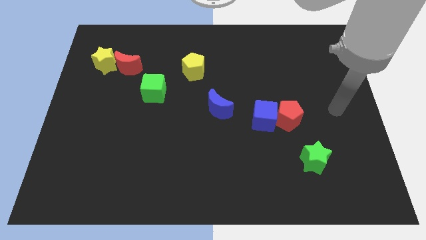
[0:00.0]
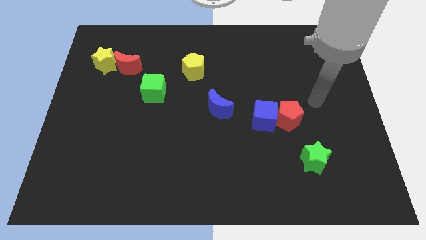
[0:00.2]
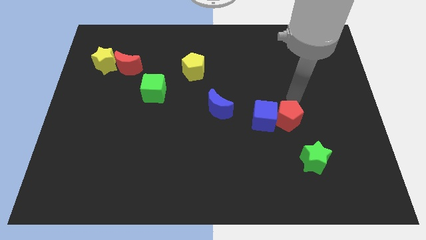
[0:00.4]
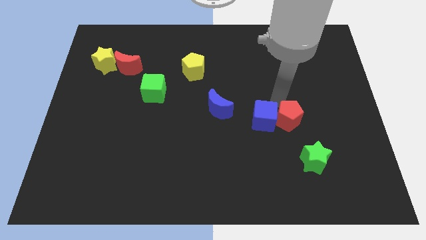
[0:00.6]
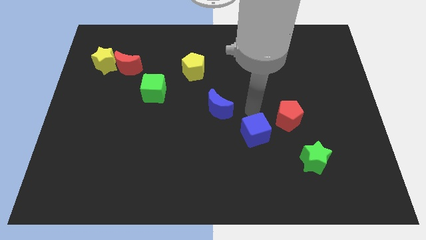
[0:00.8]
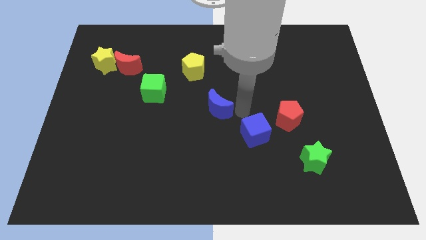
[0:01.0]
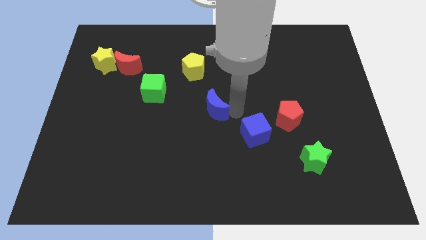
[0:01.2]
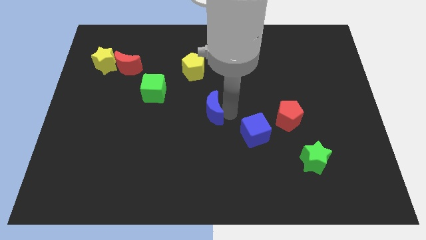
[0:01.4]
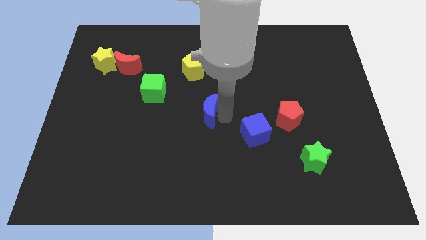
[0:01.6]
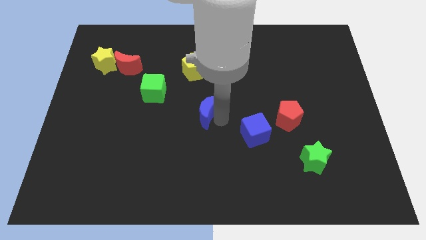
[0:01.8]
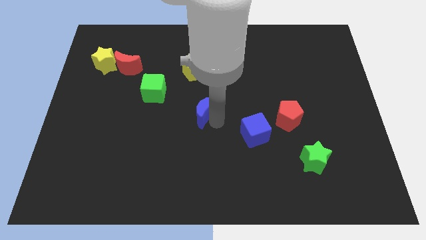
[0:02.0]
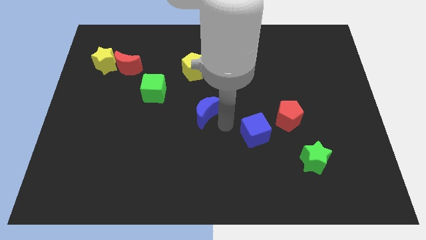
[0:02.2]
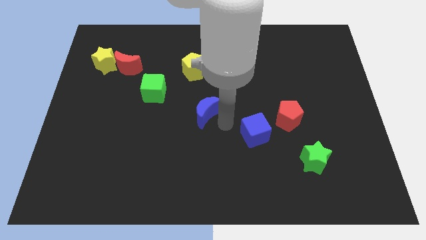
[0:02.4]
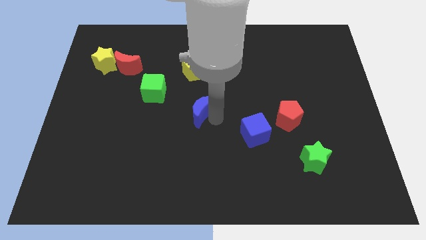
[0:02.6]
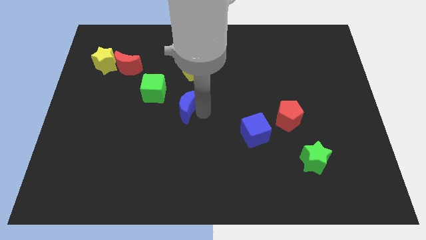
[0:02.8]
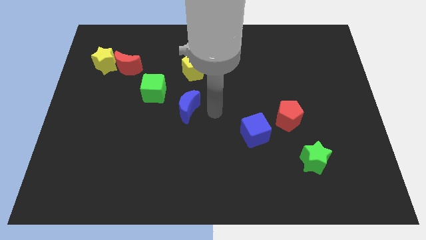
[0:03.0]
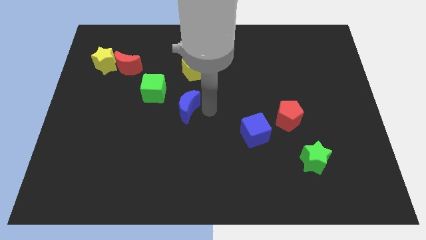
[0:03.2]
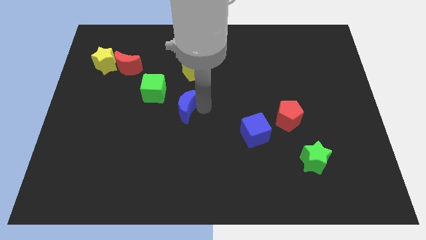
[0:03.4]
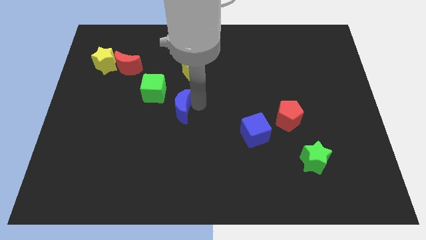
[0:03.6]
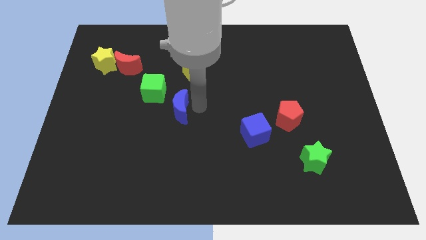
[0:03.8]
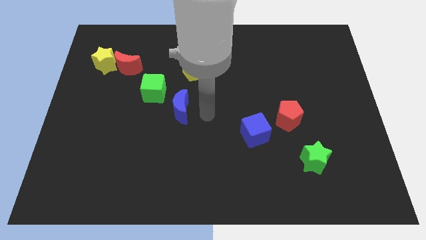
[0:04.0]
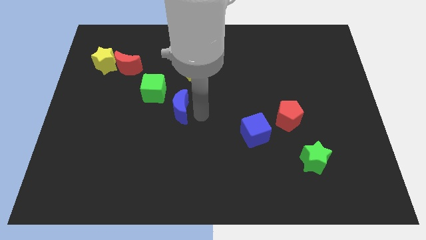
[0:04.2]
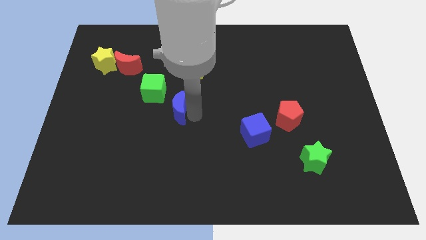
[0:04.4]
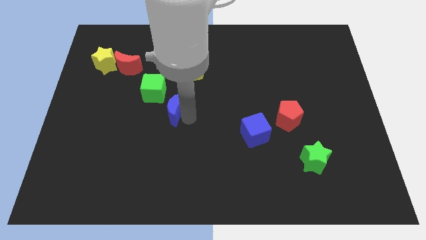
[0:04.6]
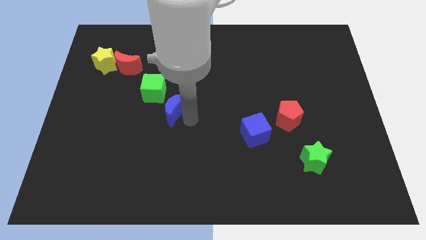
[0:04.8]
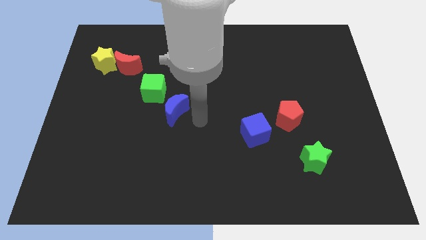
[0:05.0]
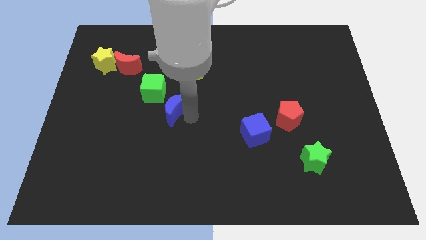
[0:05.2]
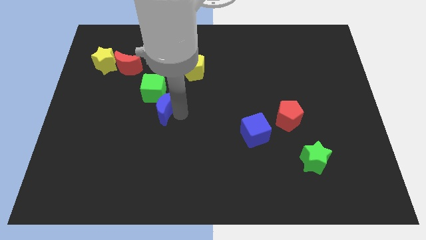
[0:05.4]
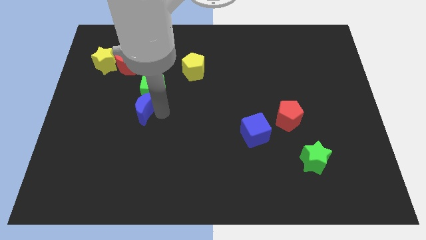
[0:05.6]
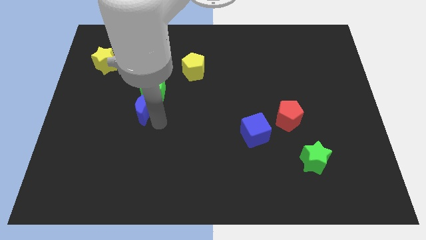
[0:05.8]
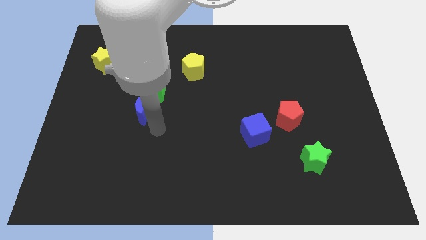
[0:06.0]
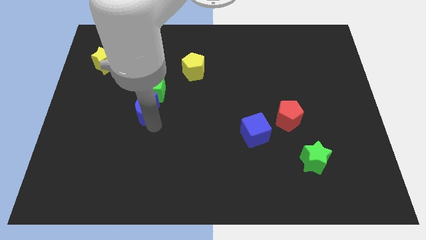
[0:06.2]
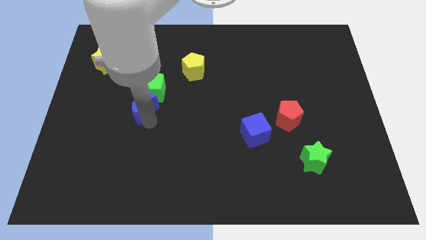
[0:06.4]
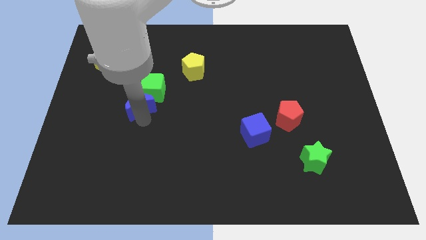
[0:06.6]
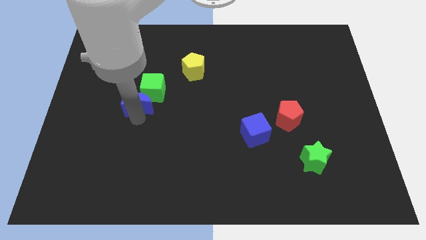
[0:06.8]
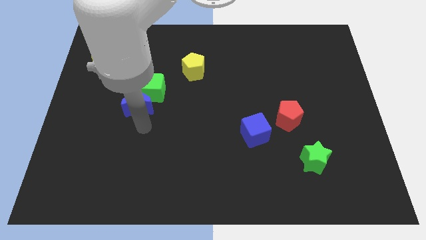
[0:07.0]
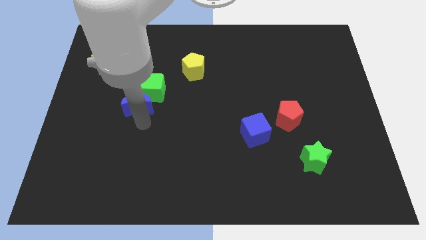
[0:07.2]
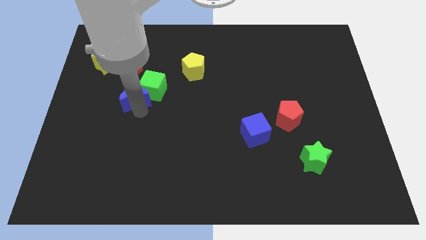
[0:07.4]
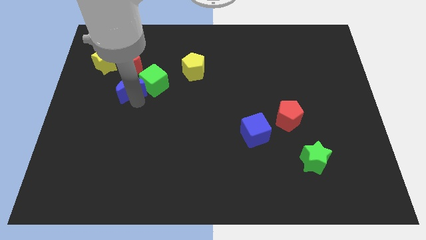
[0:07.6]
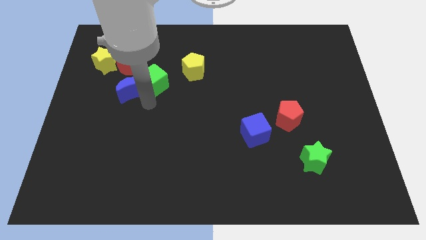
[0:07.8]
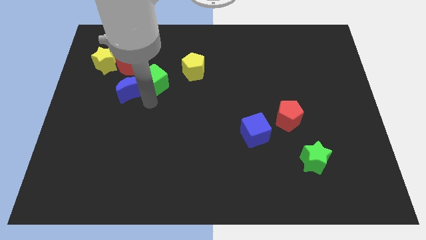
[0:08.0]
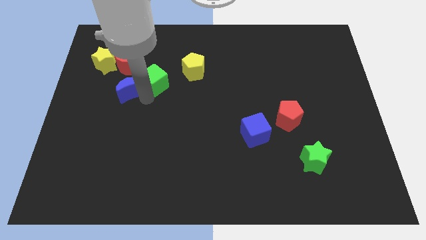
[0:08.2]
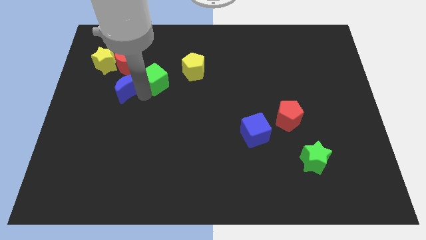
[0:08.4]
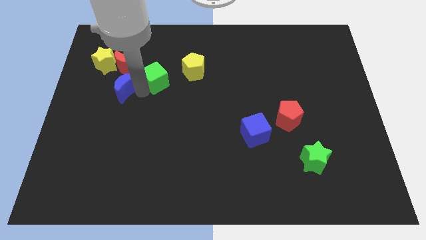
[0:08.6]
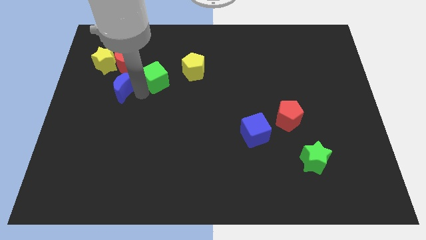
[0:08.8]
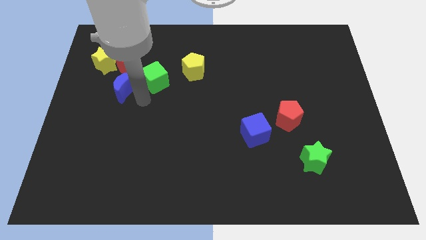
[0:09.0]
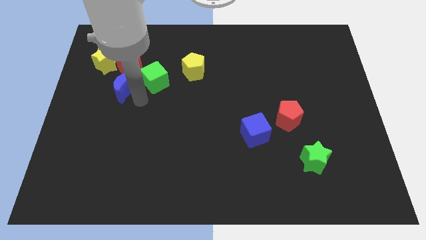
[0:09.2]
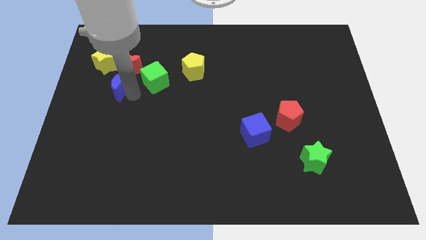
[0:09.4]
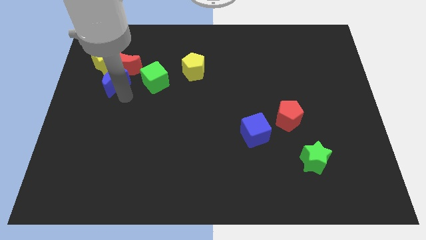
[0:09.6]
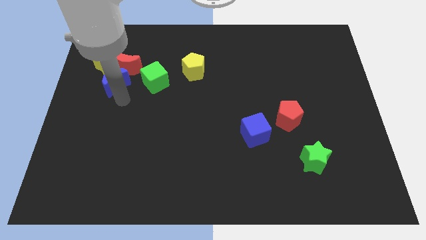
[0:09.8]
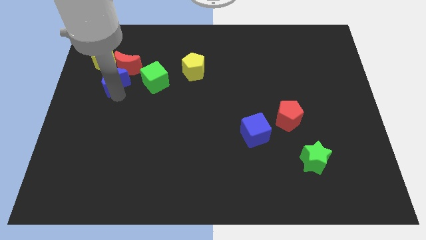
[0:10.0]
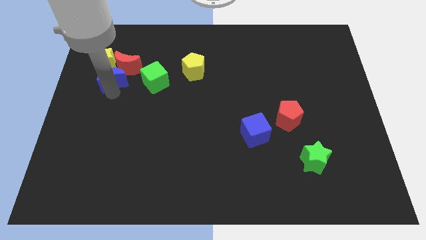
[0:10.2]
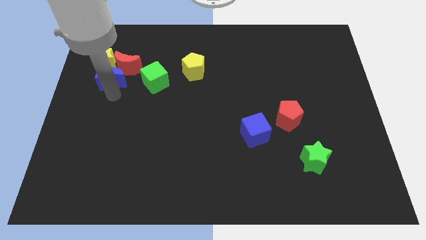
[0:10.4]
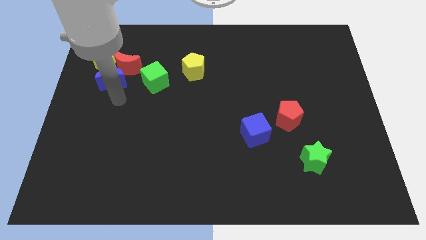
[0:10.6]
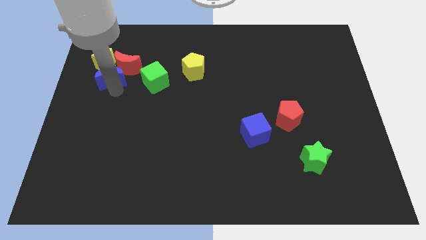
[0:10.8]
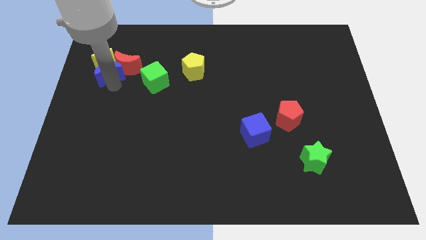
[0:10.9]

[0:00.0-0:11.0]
push the blue moon next to the yellow star

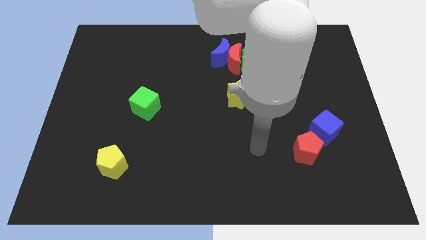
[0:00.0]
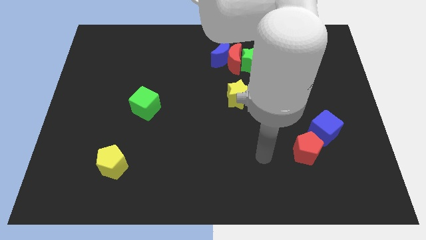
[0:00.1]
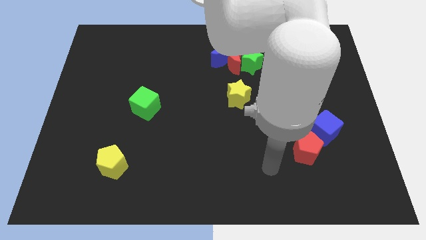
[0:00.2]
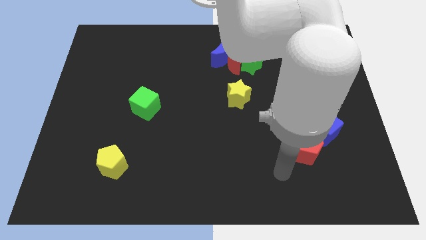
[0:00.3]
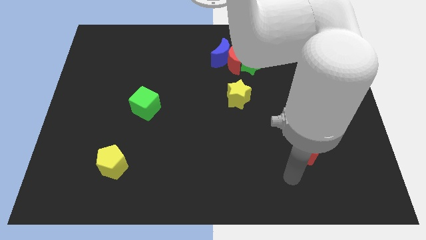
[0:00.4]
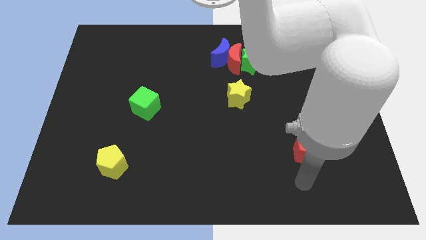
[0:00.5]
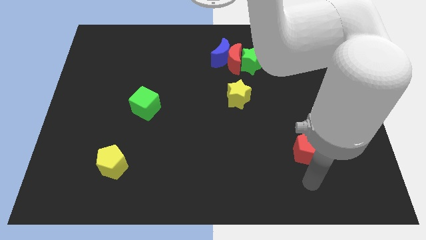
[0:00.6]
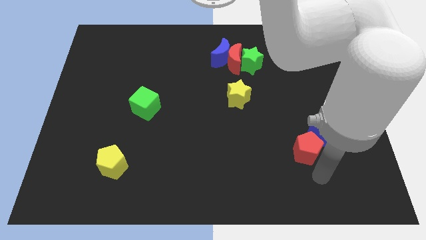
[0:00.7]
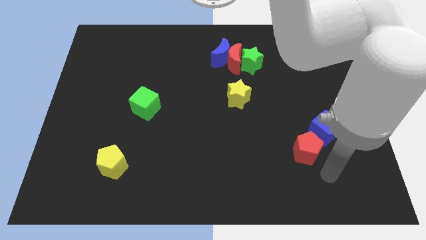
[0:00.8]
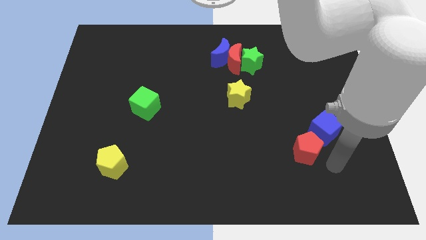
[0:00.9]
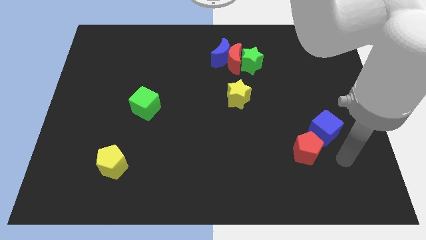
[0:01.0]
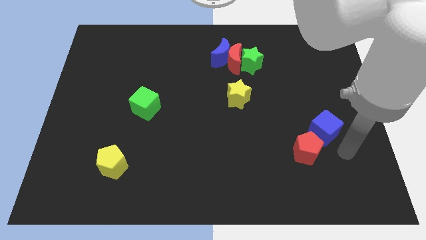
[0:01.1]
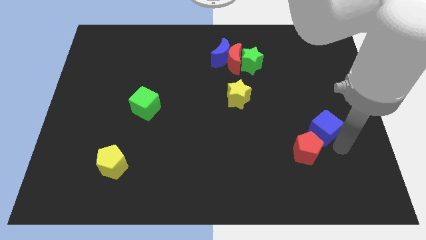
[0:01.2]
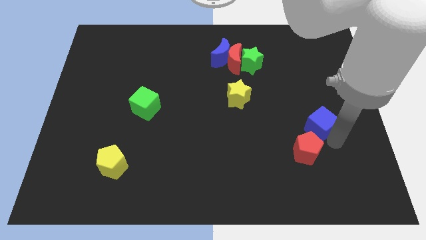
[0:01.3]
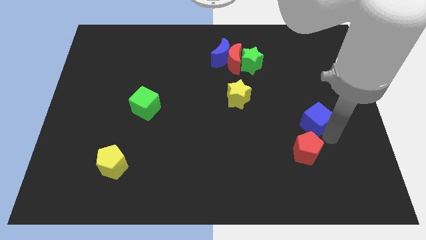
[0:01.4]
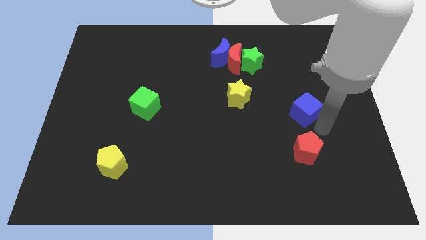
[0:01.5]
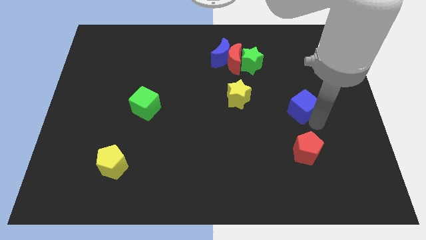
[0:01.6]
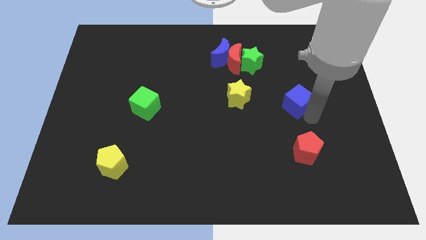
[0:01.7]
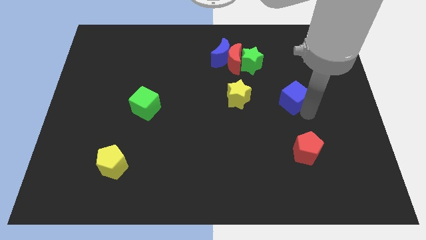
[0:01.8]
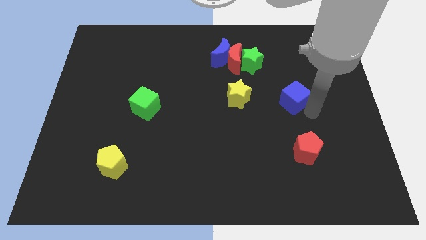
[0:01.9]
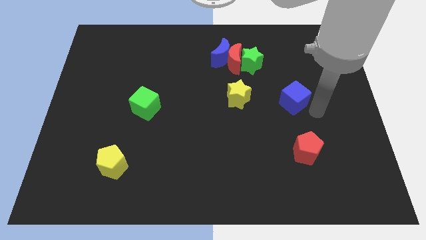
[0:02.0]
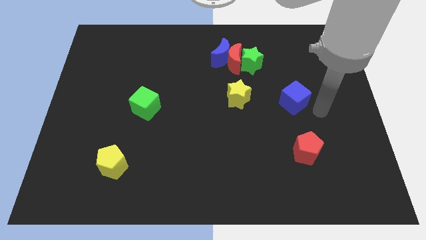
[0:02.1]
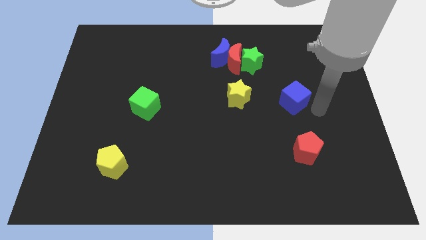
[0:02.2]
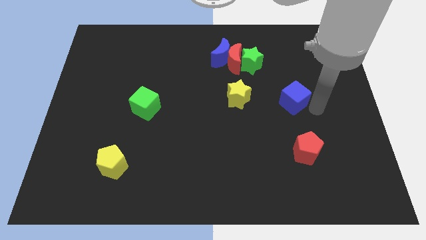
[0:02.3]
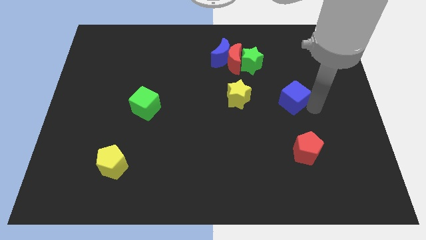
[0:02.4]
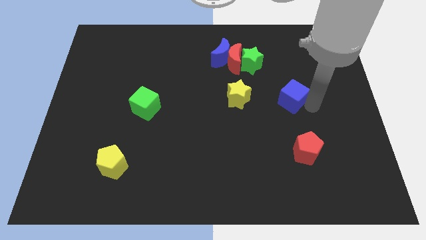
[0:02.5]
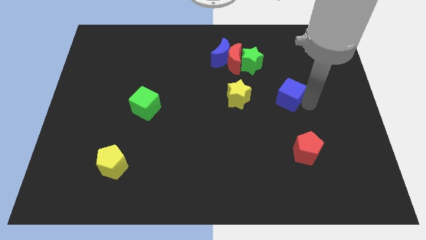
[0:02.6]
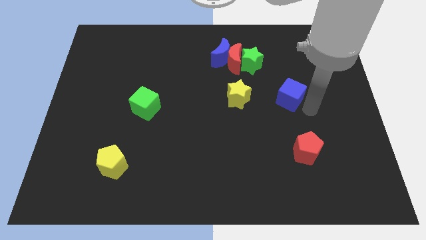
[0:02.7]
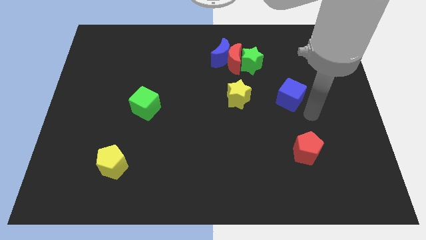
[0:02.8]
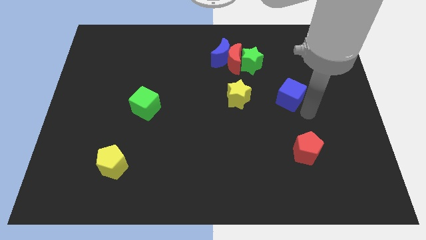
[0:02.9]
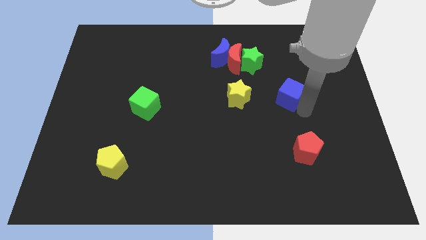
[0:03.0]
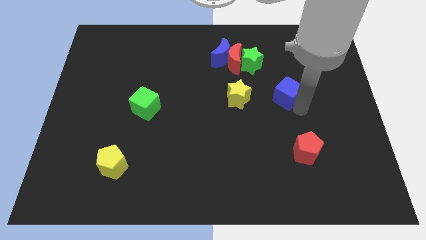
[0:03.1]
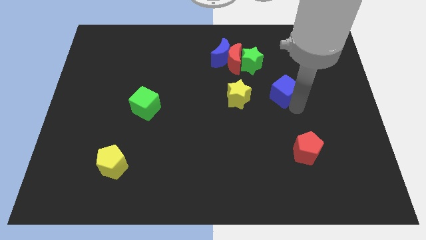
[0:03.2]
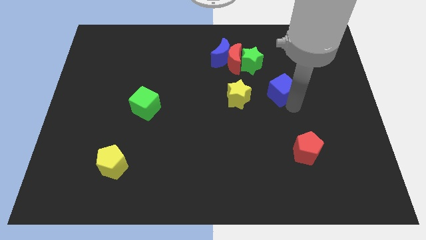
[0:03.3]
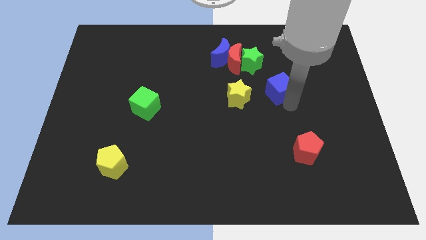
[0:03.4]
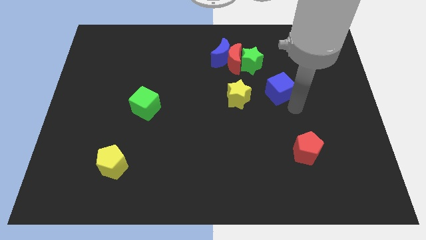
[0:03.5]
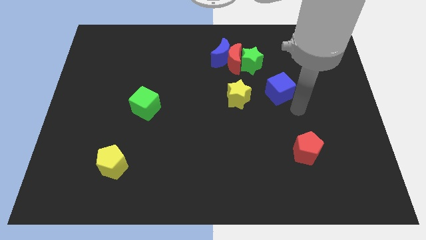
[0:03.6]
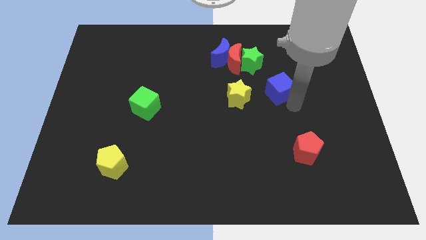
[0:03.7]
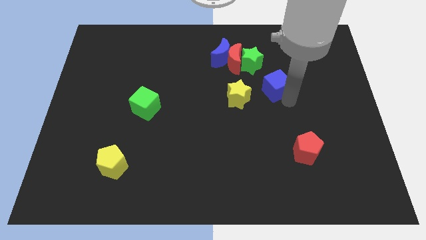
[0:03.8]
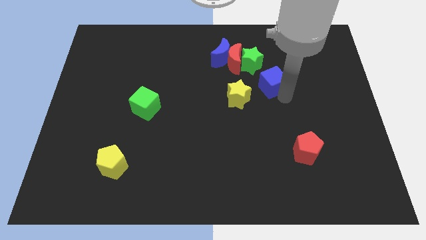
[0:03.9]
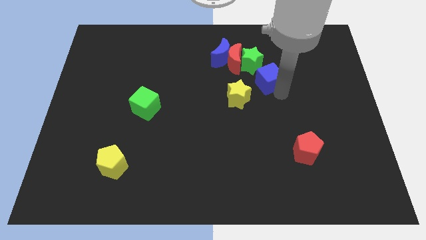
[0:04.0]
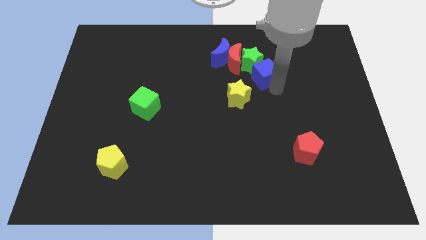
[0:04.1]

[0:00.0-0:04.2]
put the blue cube towards the green star
